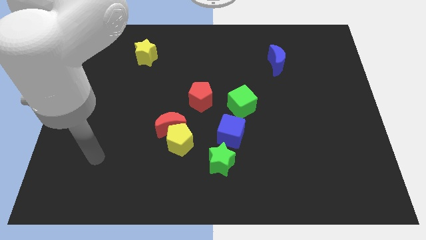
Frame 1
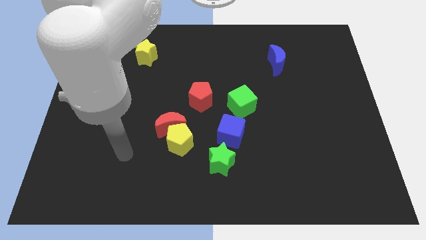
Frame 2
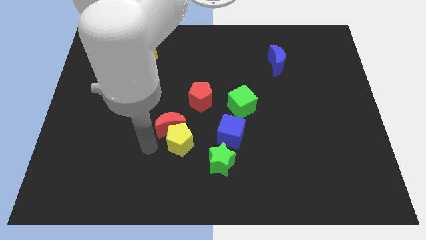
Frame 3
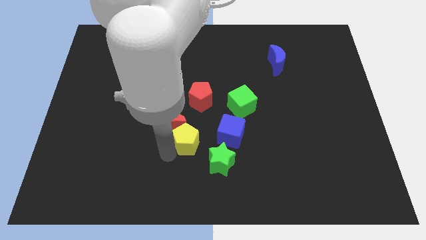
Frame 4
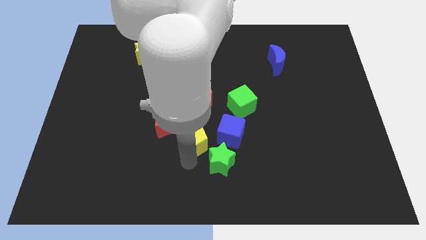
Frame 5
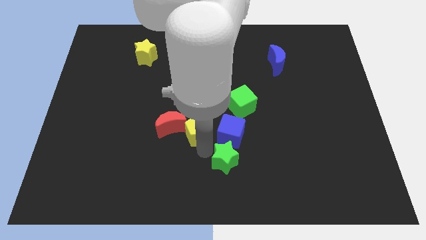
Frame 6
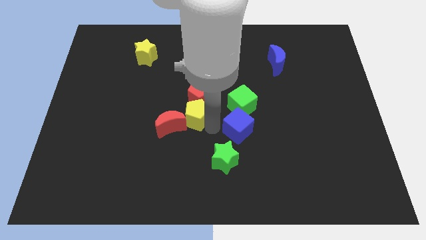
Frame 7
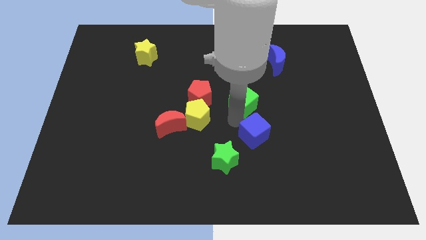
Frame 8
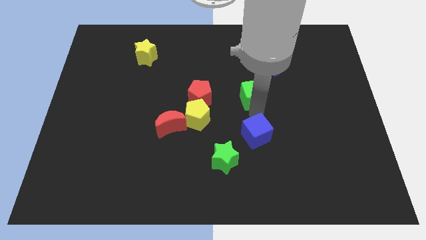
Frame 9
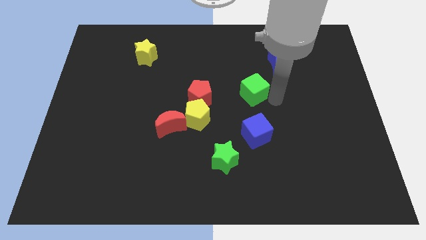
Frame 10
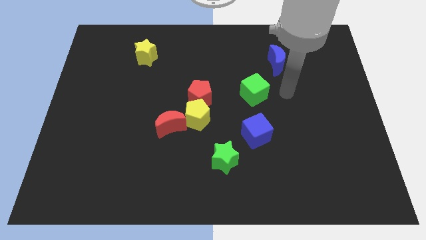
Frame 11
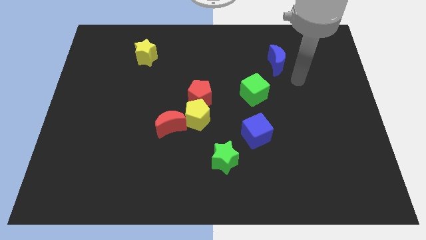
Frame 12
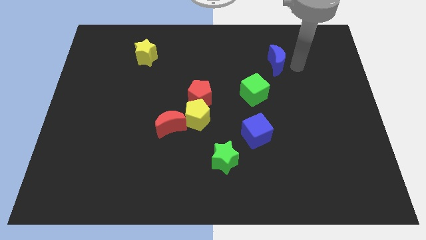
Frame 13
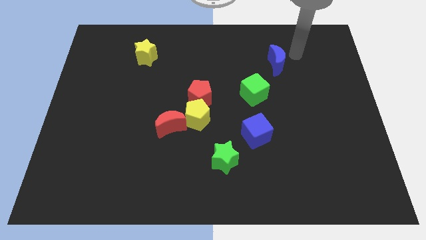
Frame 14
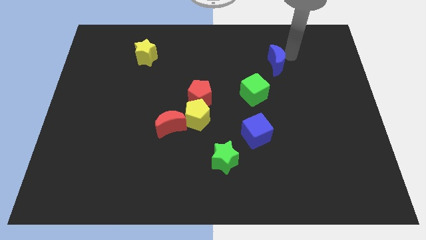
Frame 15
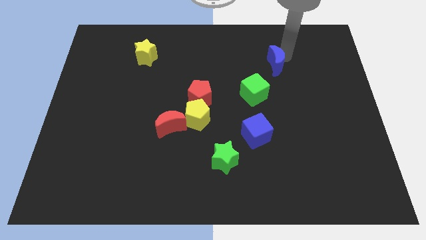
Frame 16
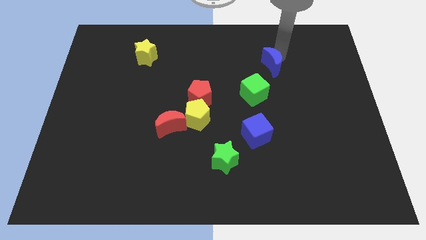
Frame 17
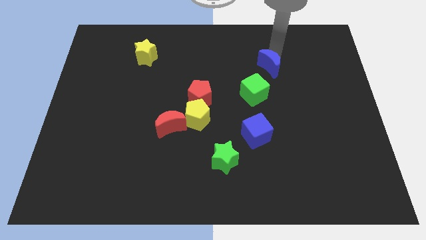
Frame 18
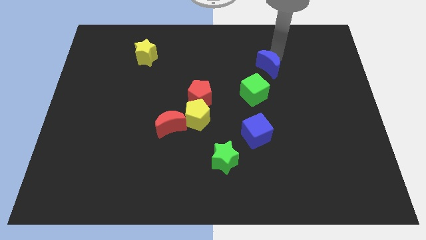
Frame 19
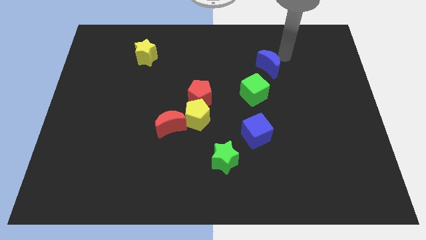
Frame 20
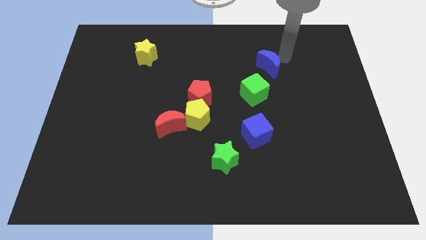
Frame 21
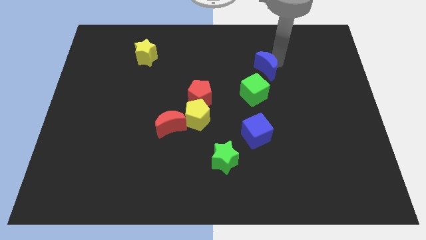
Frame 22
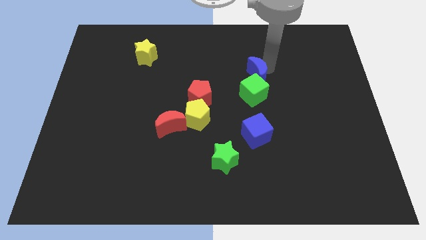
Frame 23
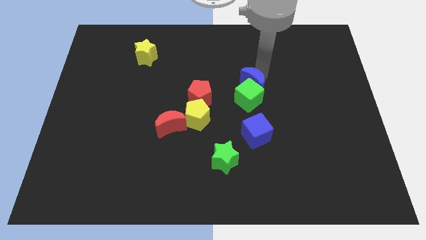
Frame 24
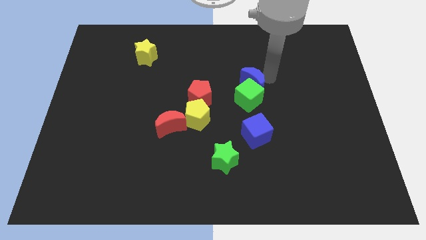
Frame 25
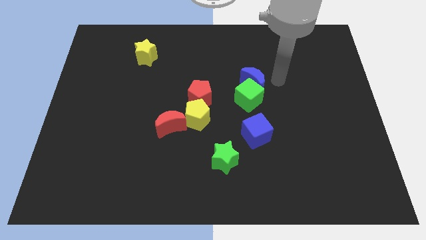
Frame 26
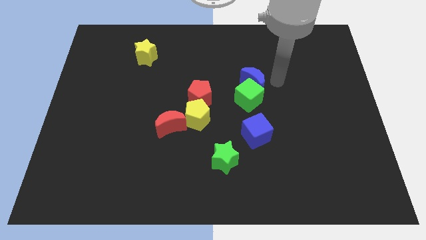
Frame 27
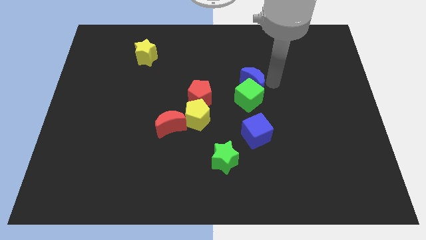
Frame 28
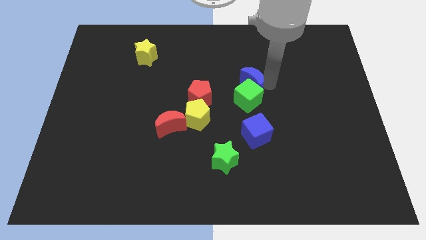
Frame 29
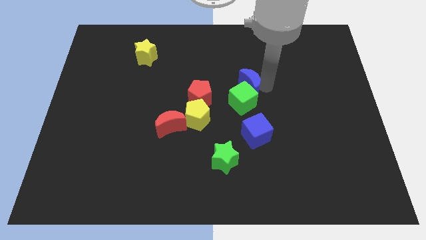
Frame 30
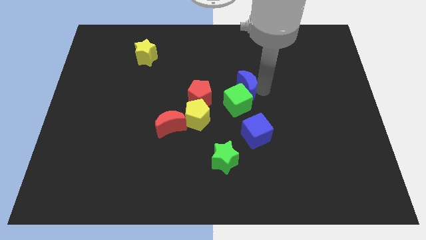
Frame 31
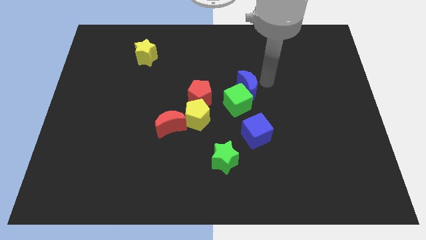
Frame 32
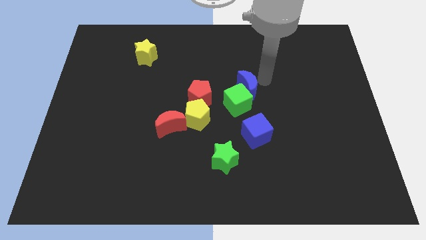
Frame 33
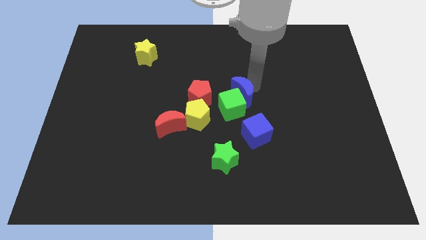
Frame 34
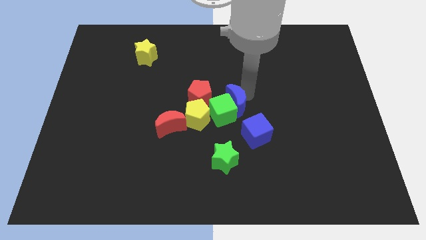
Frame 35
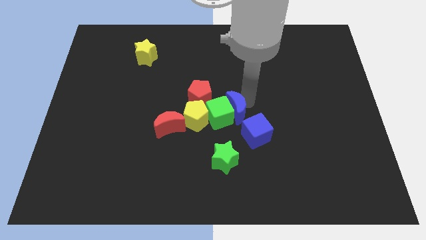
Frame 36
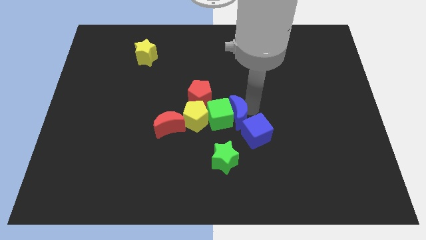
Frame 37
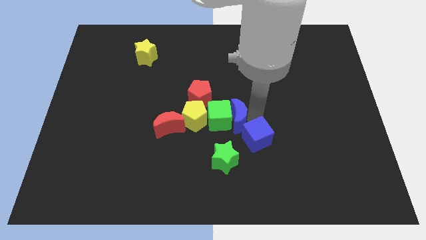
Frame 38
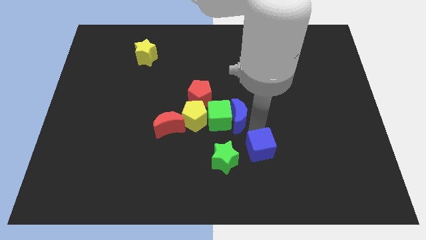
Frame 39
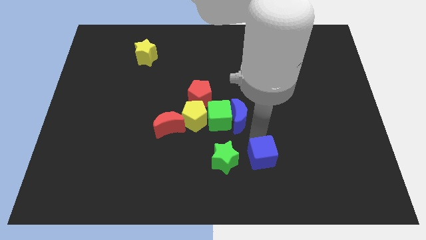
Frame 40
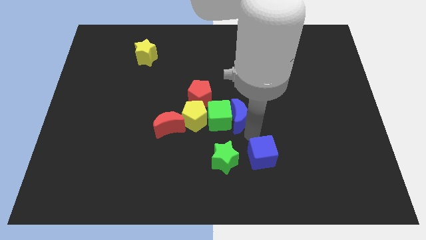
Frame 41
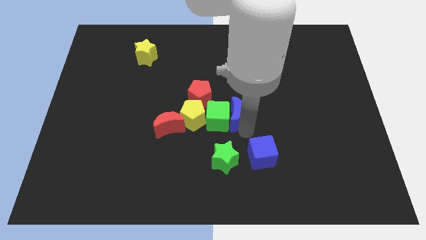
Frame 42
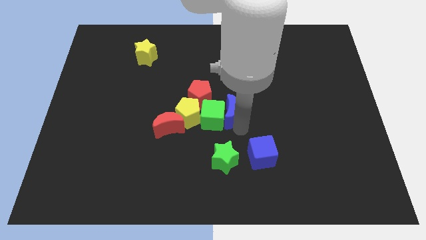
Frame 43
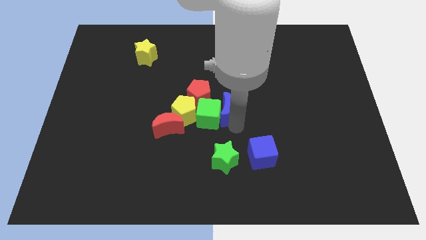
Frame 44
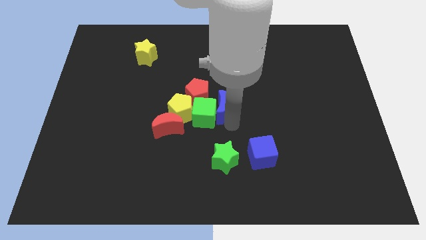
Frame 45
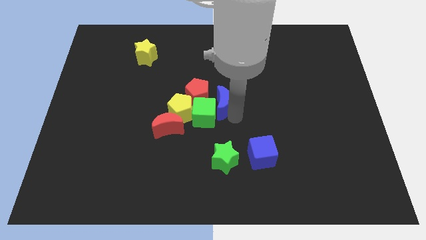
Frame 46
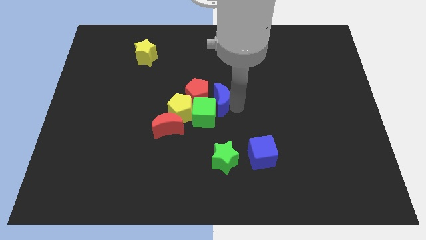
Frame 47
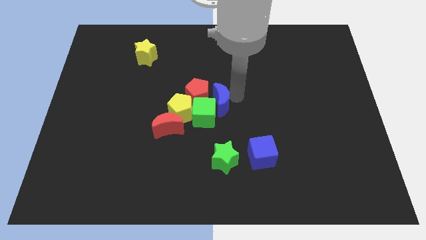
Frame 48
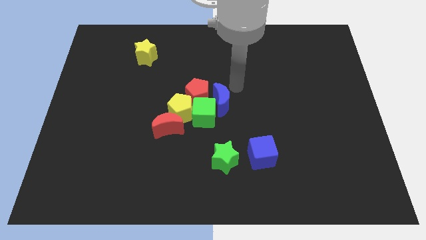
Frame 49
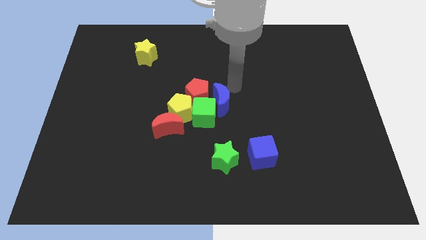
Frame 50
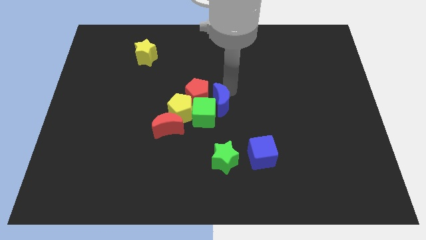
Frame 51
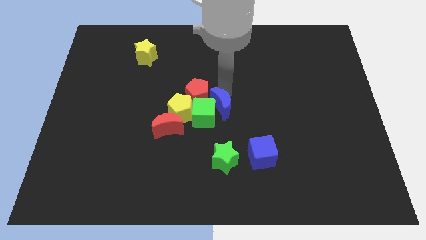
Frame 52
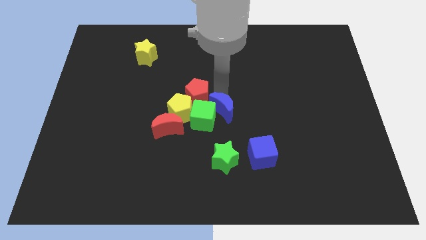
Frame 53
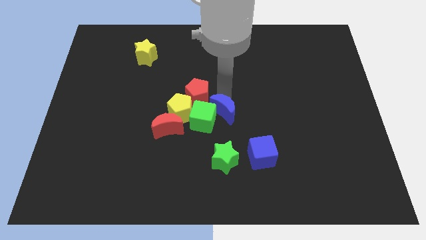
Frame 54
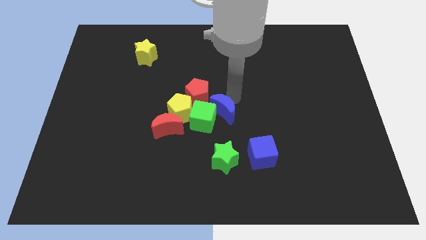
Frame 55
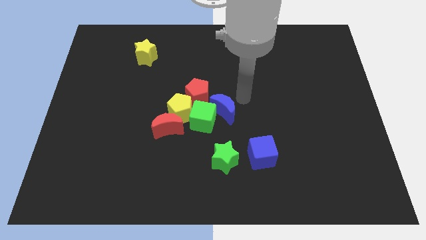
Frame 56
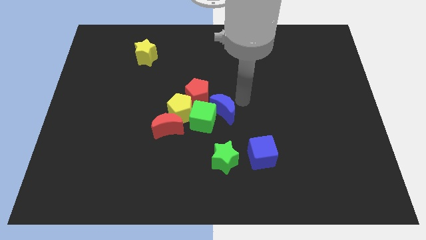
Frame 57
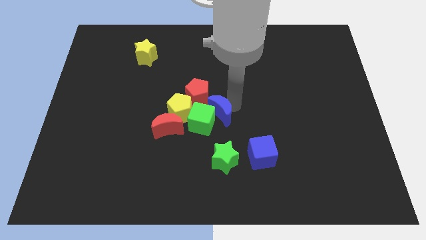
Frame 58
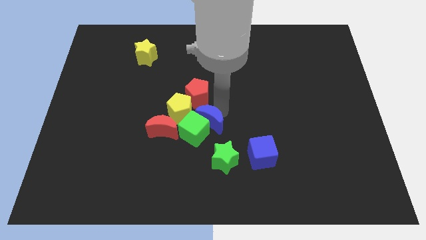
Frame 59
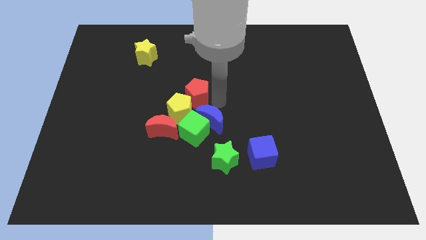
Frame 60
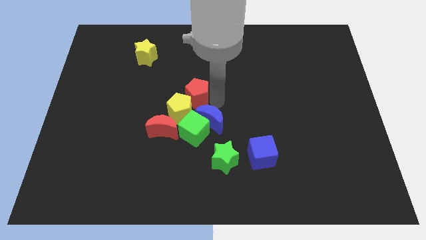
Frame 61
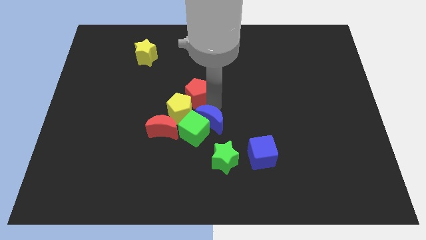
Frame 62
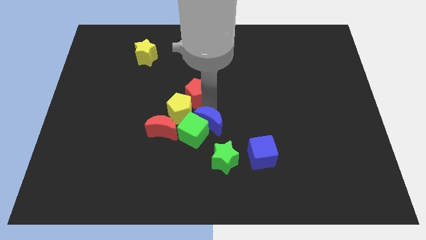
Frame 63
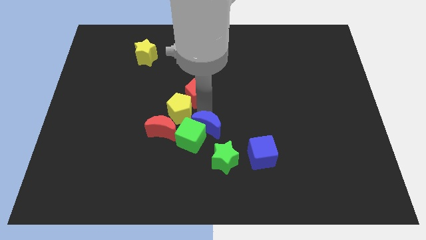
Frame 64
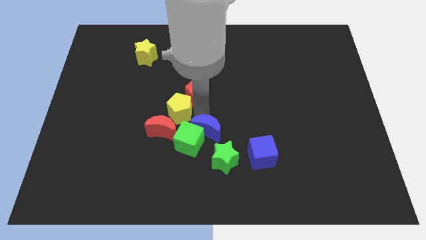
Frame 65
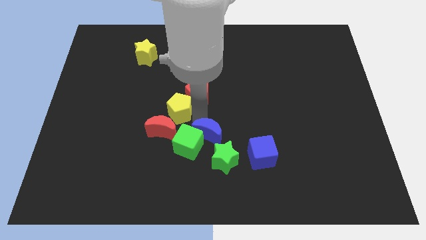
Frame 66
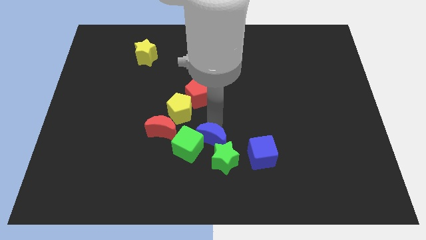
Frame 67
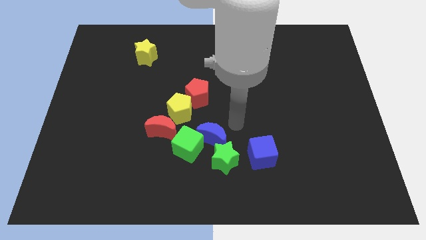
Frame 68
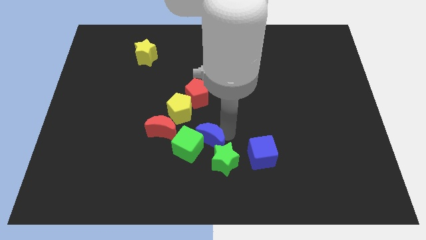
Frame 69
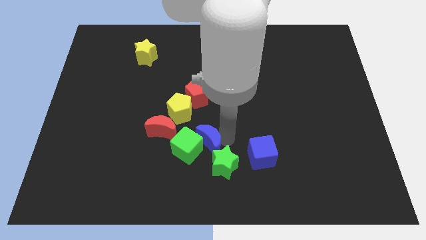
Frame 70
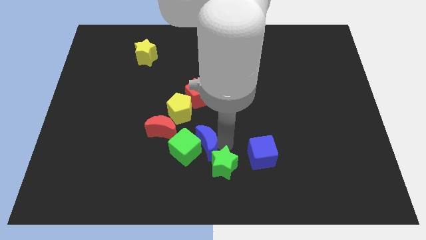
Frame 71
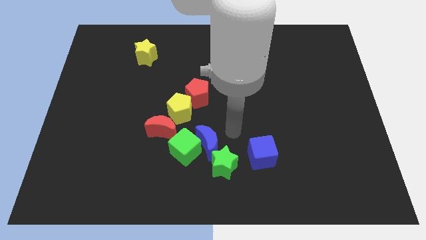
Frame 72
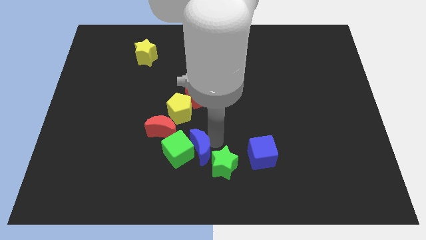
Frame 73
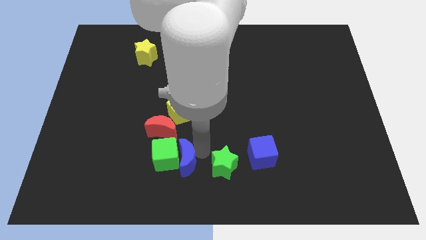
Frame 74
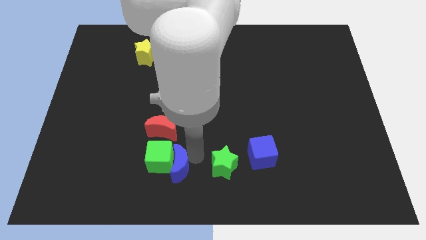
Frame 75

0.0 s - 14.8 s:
move the blue moon to the bottom of the red moon
